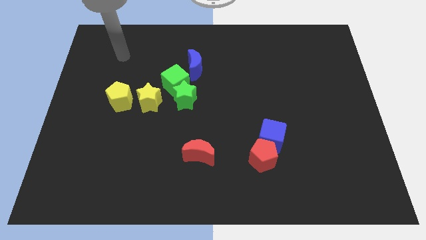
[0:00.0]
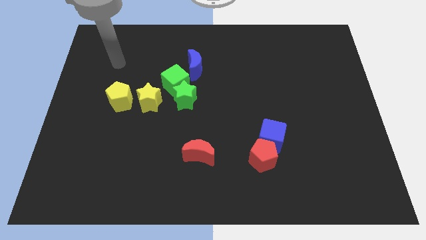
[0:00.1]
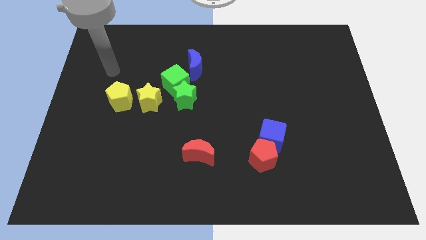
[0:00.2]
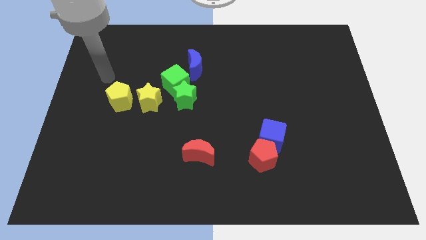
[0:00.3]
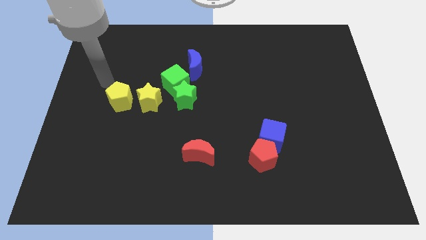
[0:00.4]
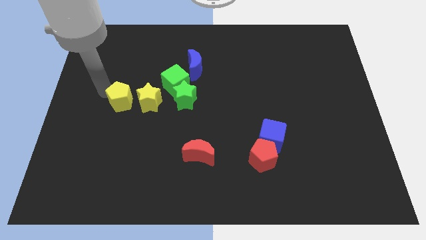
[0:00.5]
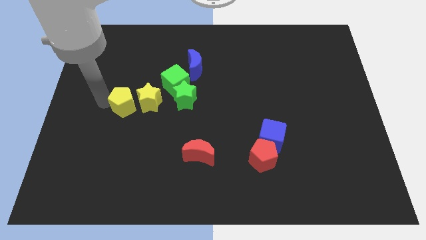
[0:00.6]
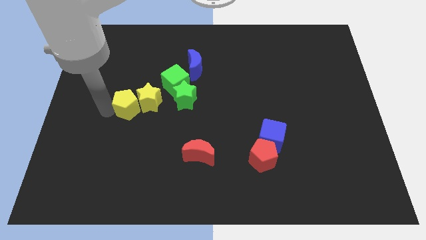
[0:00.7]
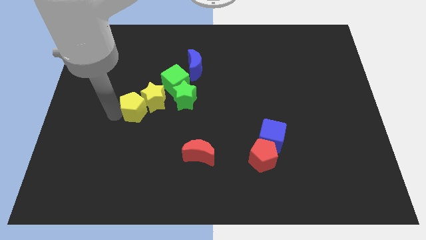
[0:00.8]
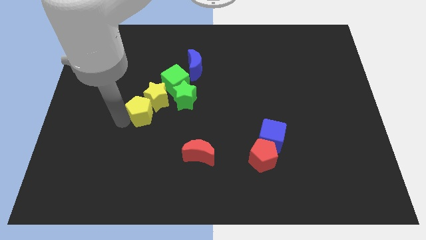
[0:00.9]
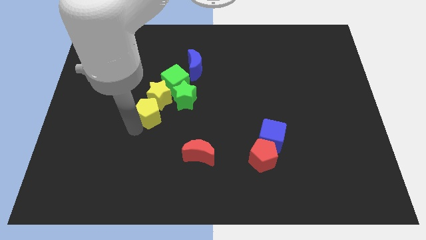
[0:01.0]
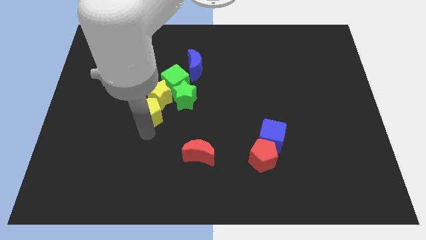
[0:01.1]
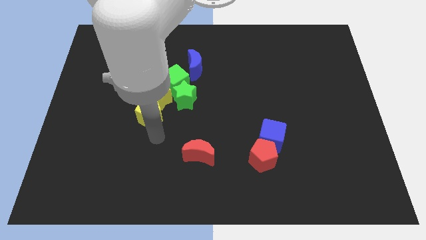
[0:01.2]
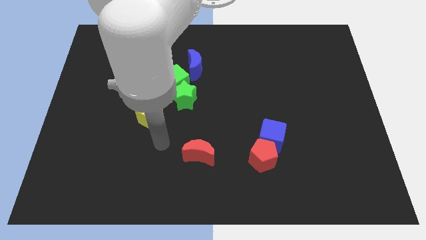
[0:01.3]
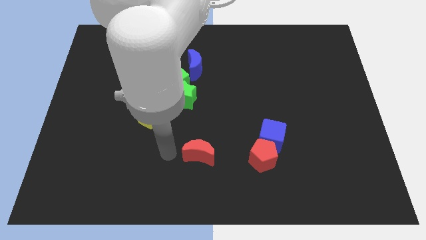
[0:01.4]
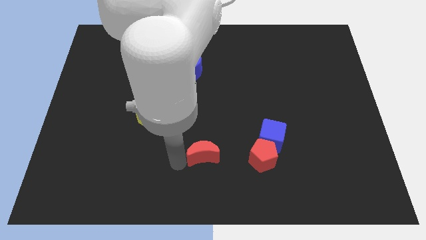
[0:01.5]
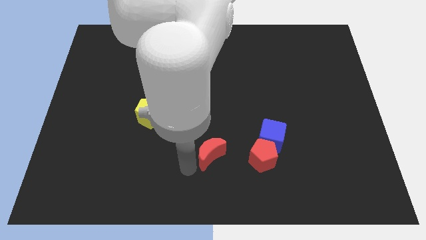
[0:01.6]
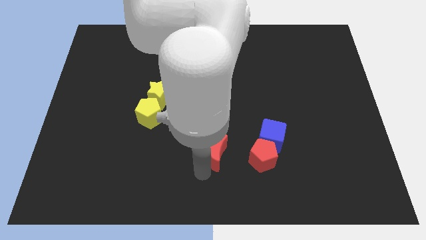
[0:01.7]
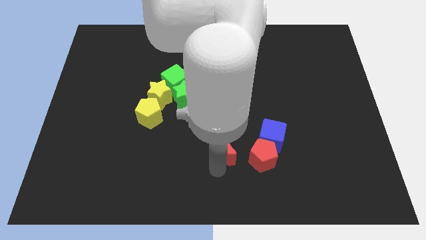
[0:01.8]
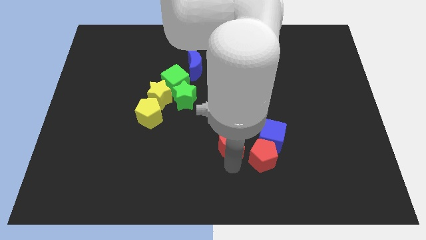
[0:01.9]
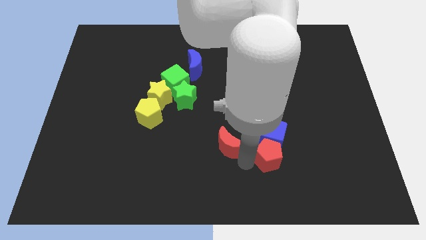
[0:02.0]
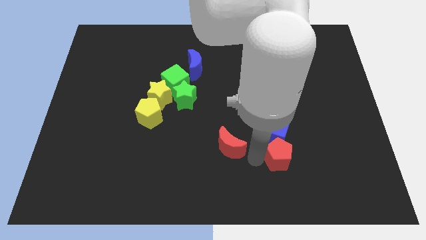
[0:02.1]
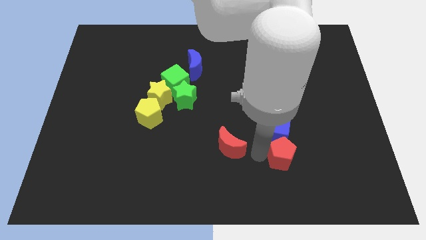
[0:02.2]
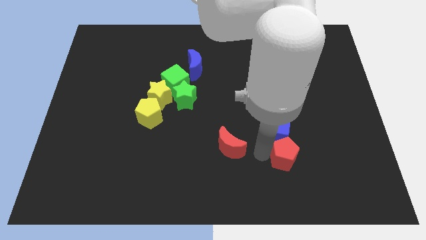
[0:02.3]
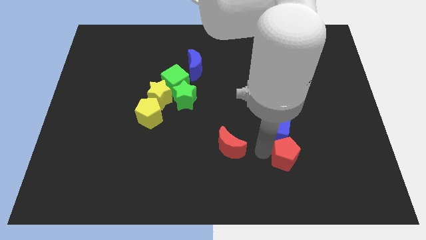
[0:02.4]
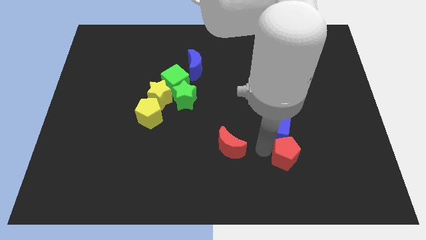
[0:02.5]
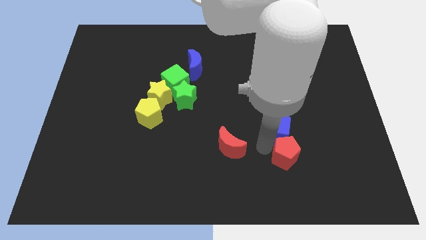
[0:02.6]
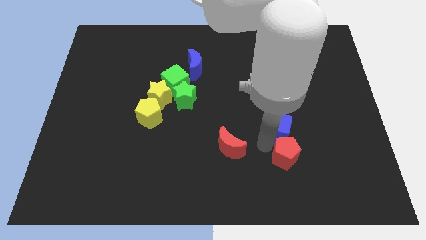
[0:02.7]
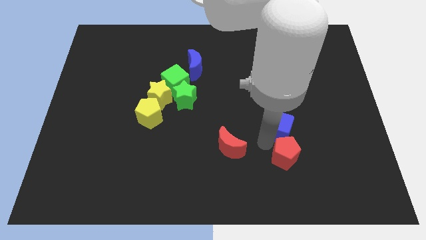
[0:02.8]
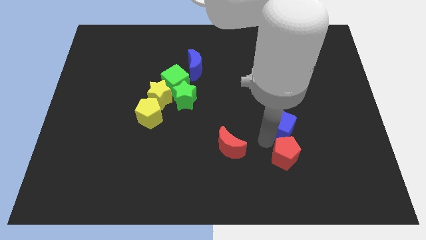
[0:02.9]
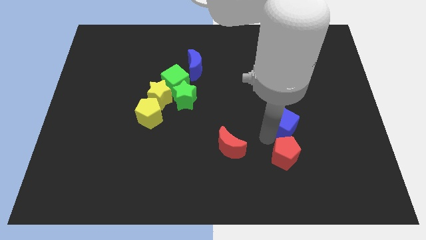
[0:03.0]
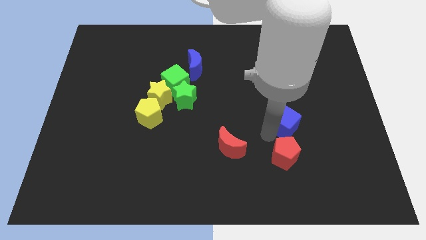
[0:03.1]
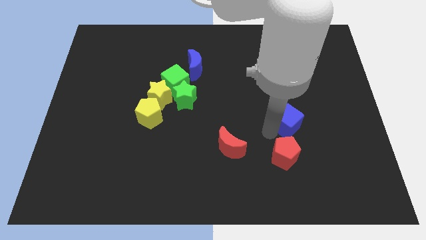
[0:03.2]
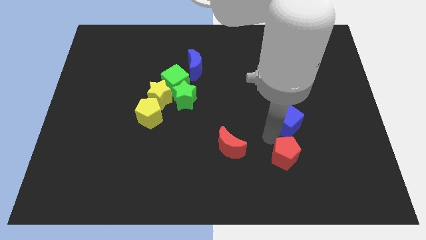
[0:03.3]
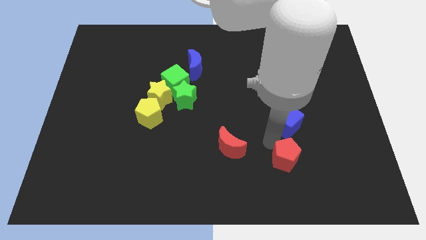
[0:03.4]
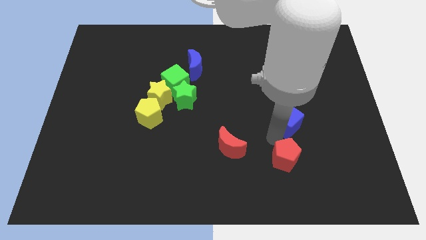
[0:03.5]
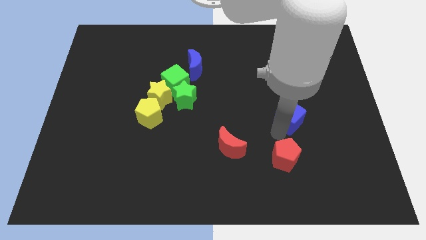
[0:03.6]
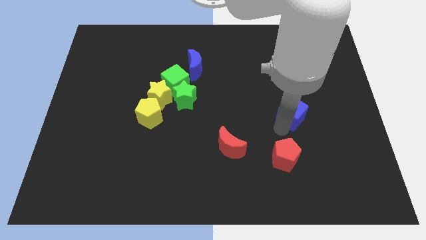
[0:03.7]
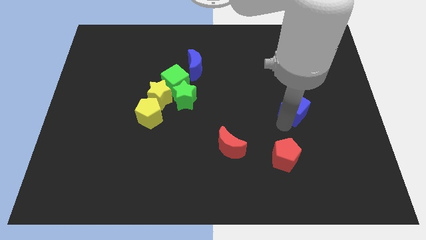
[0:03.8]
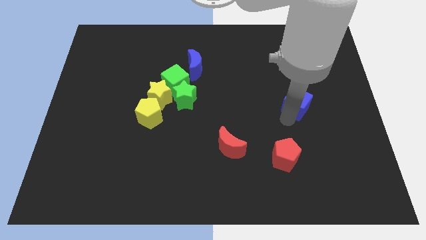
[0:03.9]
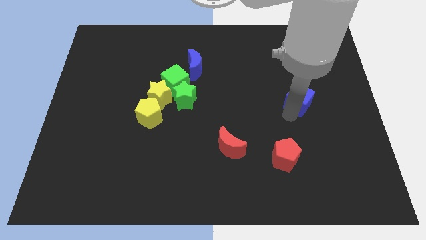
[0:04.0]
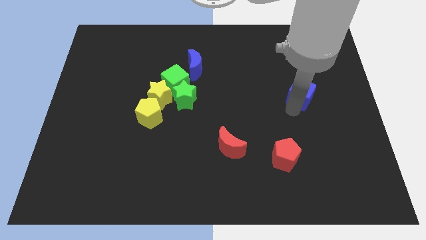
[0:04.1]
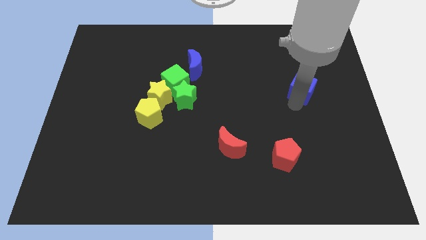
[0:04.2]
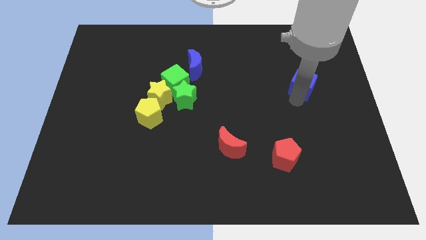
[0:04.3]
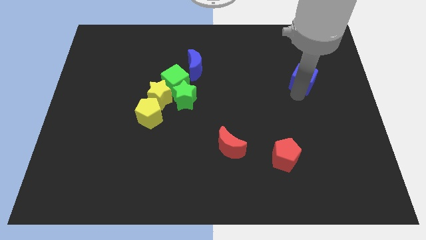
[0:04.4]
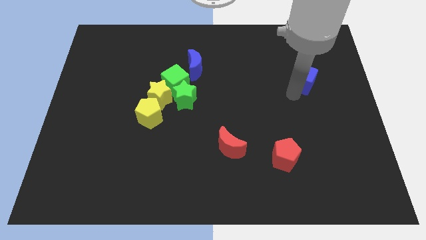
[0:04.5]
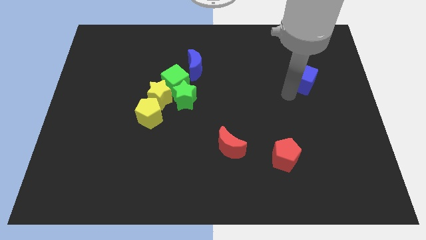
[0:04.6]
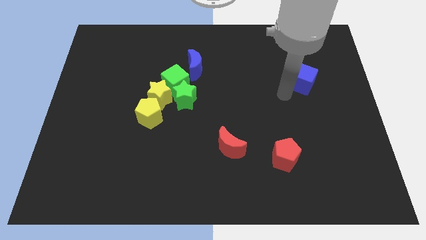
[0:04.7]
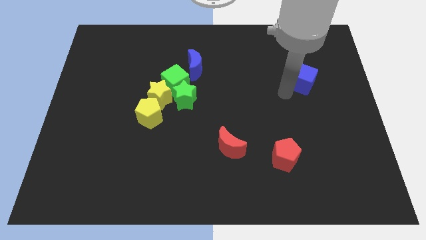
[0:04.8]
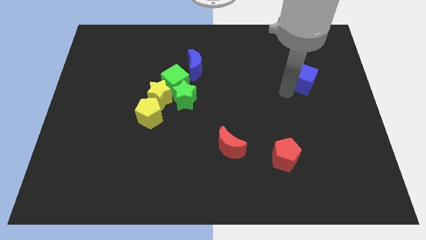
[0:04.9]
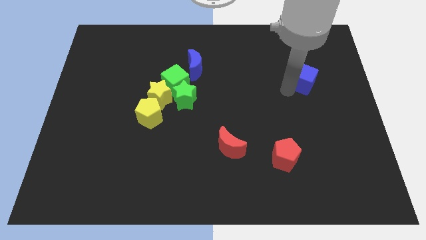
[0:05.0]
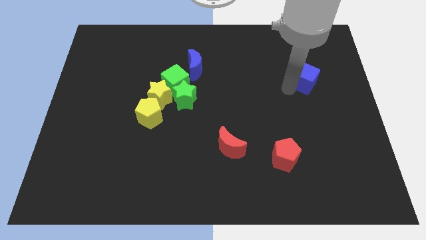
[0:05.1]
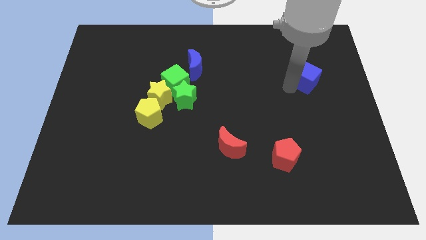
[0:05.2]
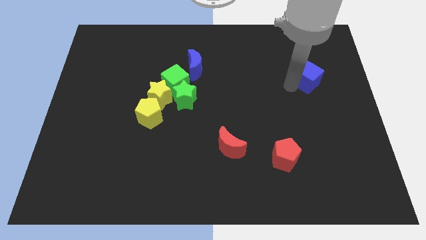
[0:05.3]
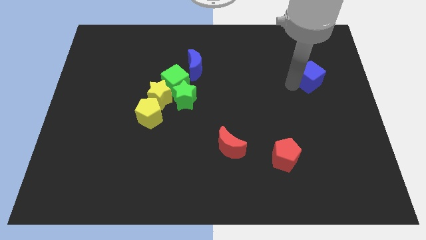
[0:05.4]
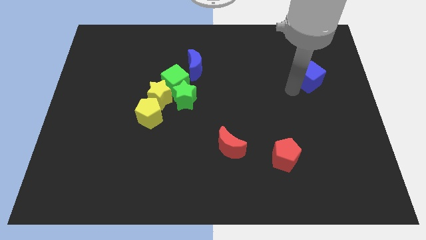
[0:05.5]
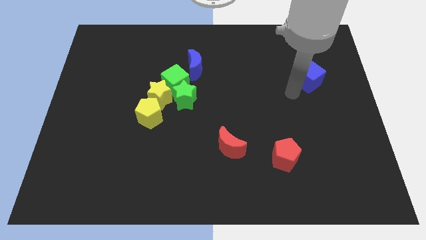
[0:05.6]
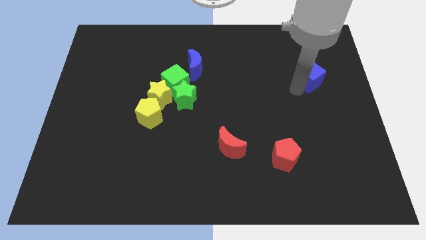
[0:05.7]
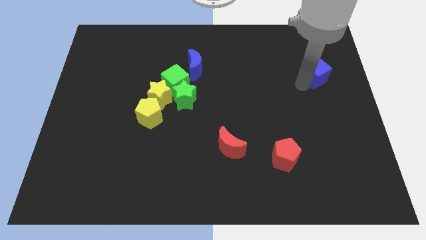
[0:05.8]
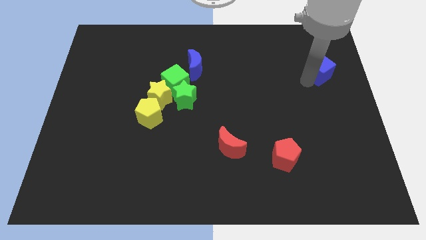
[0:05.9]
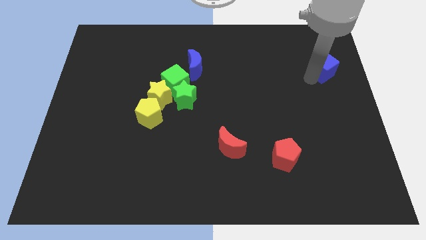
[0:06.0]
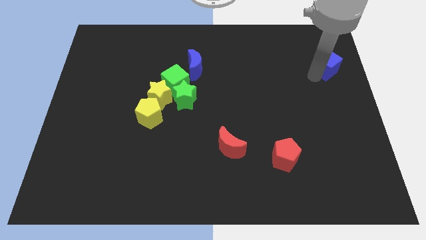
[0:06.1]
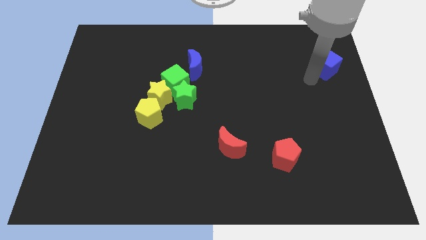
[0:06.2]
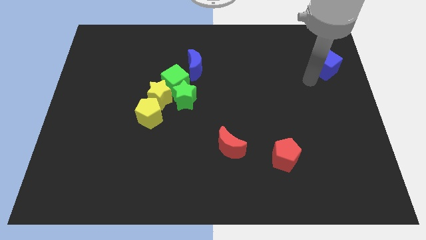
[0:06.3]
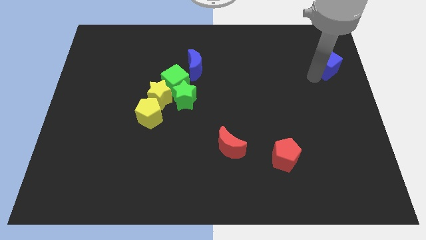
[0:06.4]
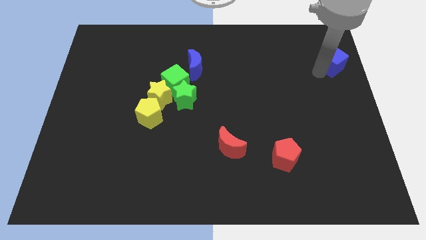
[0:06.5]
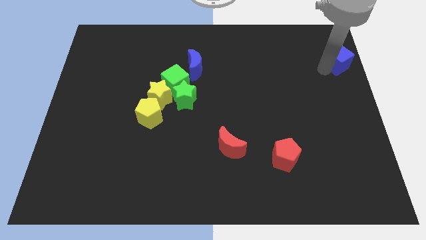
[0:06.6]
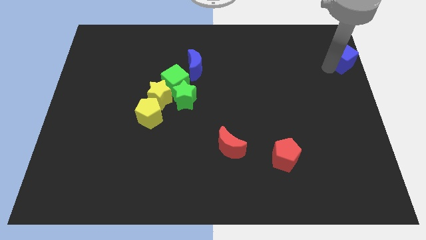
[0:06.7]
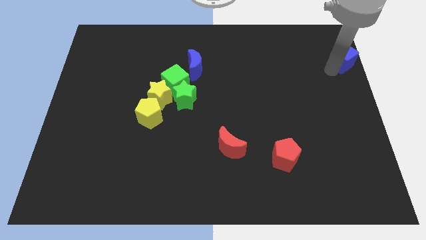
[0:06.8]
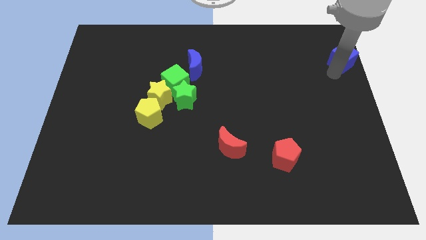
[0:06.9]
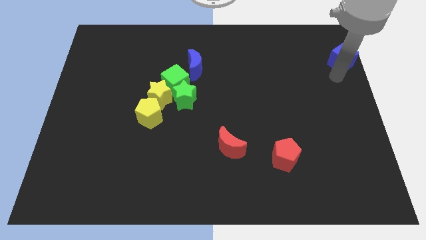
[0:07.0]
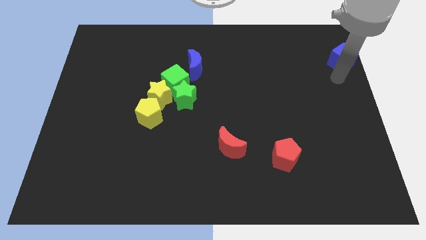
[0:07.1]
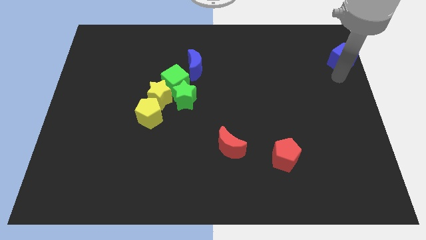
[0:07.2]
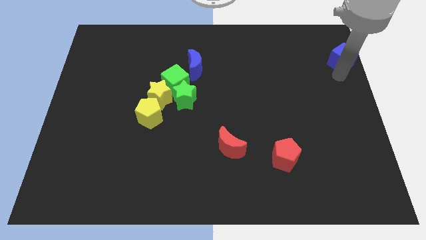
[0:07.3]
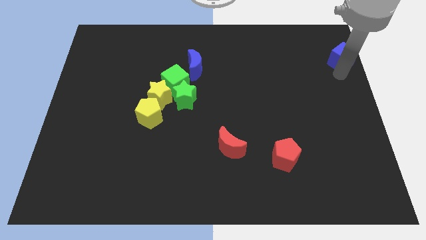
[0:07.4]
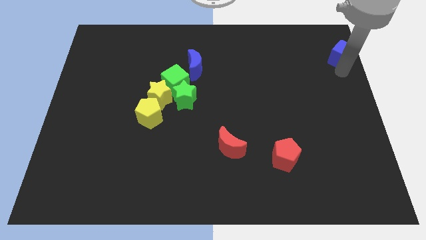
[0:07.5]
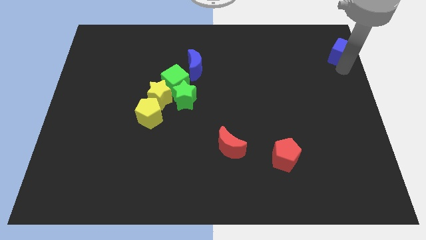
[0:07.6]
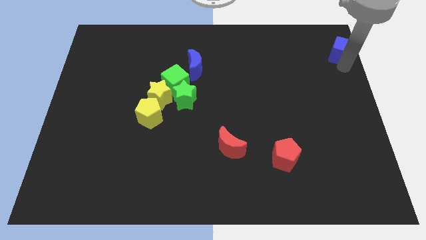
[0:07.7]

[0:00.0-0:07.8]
push the blue cube to the top right

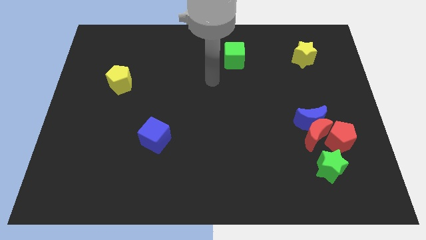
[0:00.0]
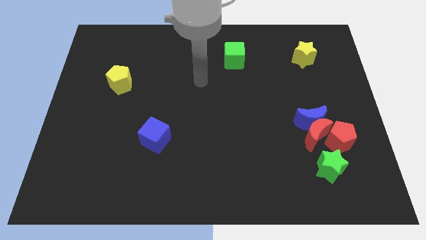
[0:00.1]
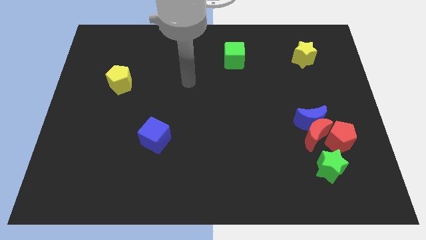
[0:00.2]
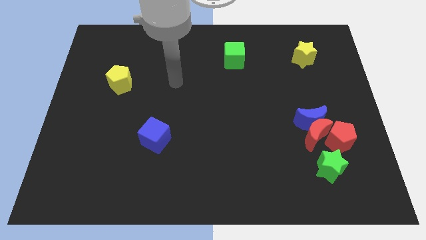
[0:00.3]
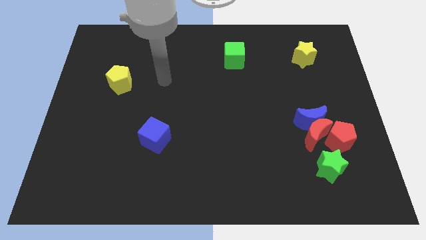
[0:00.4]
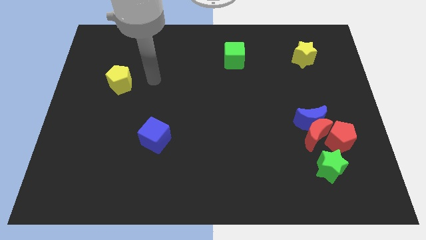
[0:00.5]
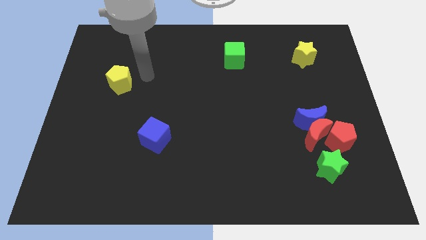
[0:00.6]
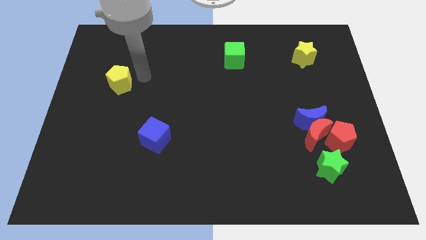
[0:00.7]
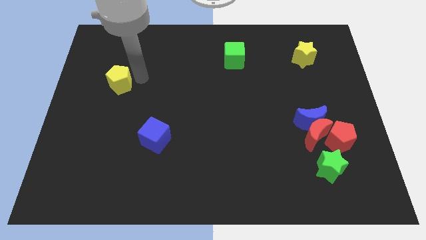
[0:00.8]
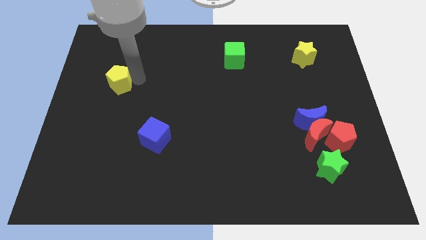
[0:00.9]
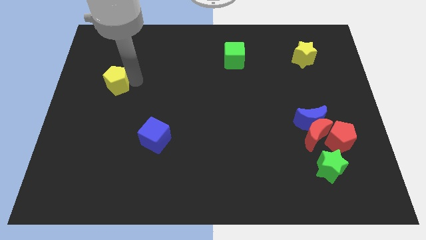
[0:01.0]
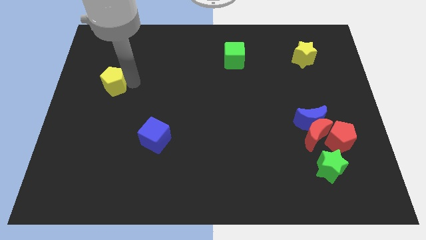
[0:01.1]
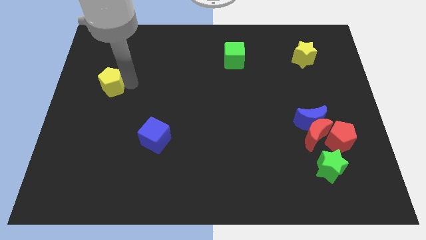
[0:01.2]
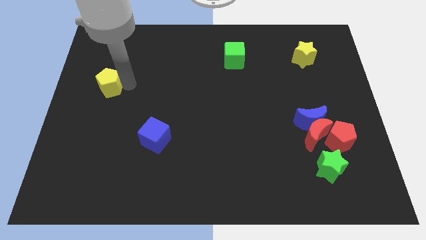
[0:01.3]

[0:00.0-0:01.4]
move the yellow pentagon to the center left
